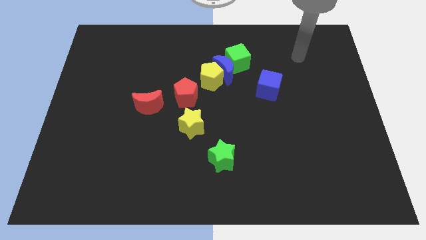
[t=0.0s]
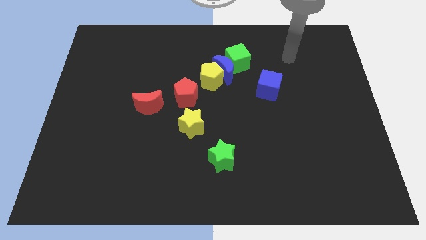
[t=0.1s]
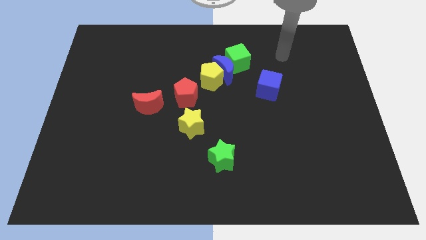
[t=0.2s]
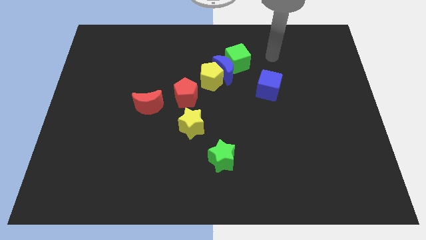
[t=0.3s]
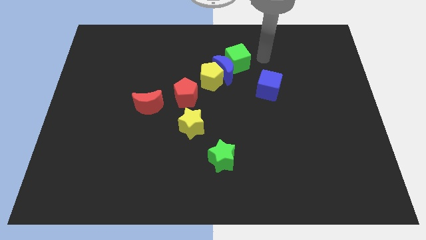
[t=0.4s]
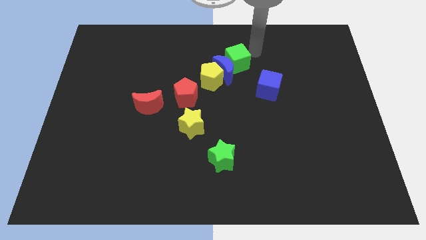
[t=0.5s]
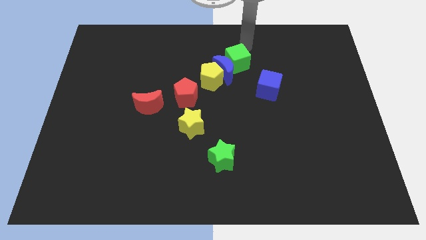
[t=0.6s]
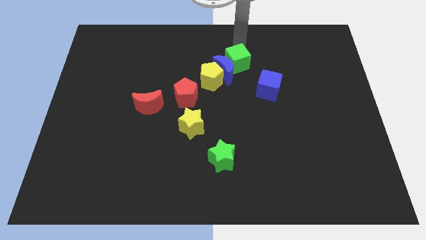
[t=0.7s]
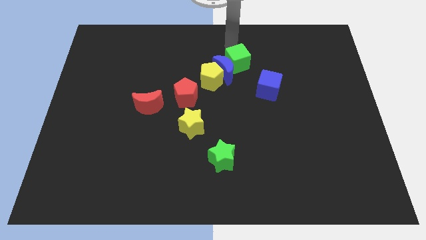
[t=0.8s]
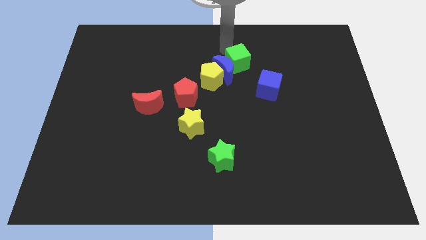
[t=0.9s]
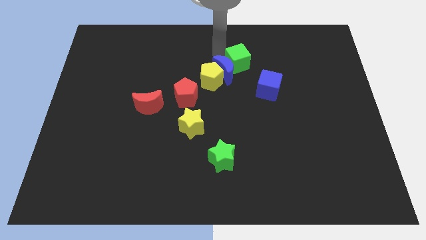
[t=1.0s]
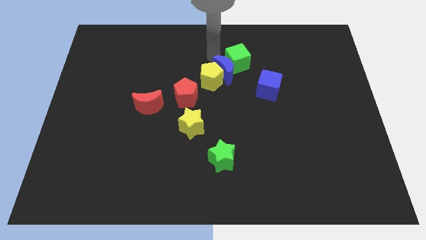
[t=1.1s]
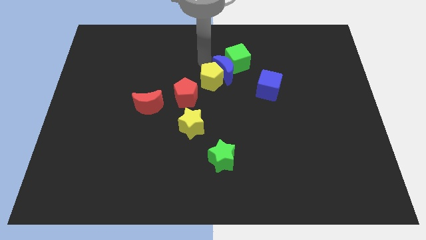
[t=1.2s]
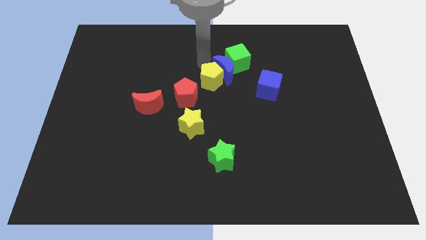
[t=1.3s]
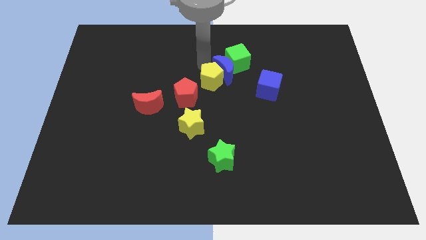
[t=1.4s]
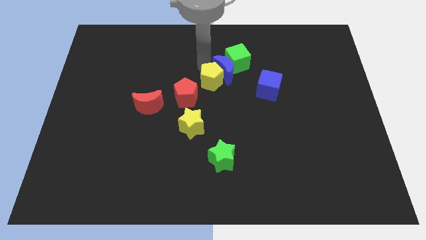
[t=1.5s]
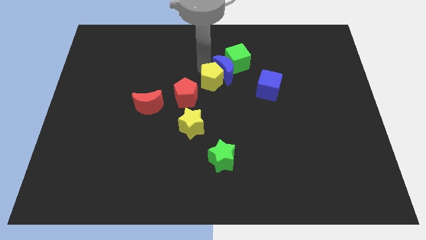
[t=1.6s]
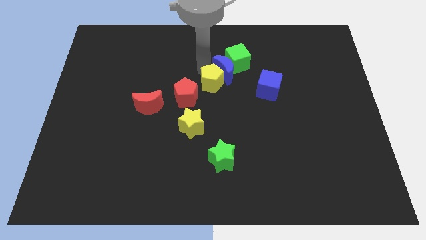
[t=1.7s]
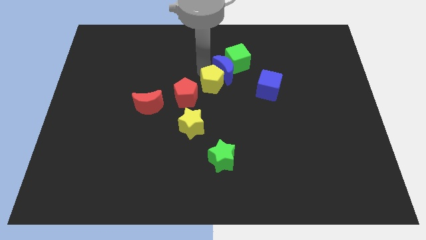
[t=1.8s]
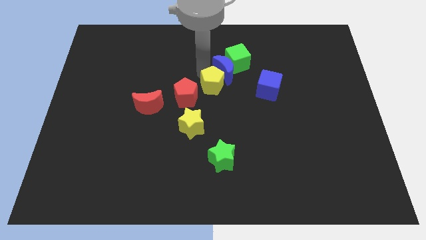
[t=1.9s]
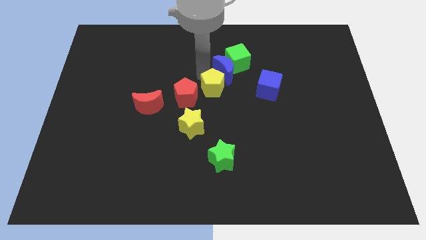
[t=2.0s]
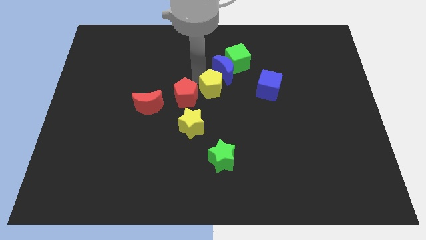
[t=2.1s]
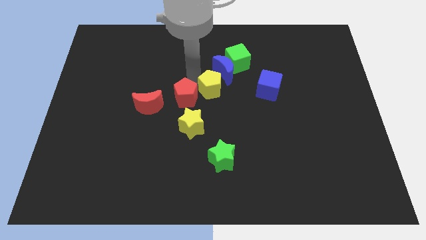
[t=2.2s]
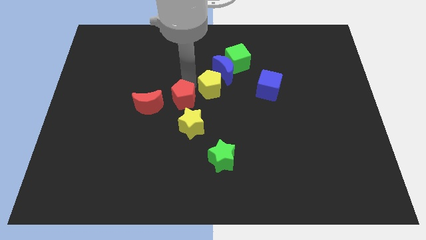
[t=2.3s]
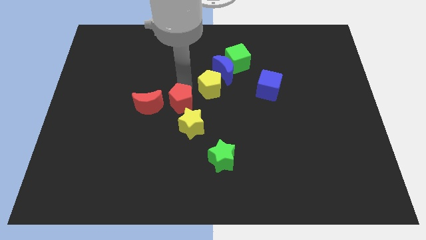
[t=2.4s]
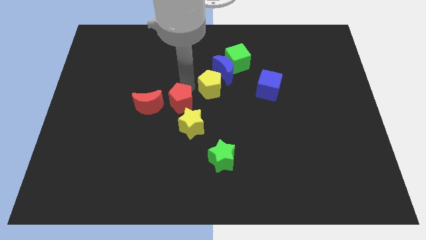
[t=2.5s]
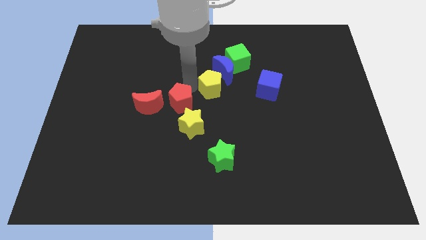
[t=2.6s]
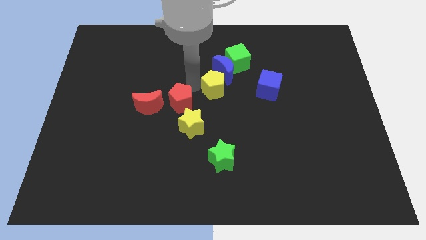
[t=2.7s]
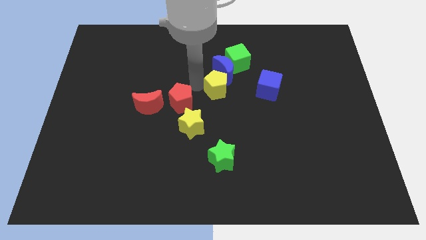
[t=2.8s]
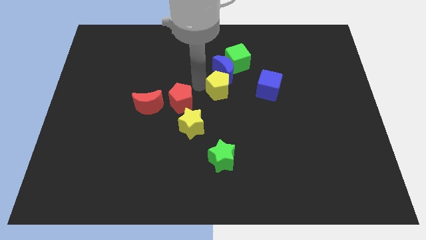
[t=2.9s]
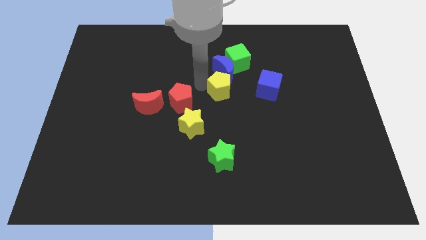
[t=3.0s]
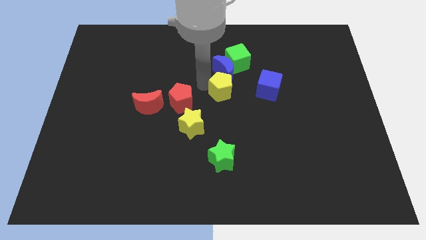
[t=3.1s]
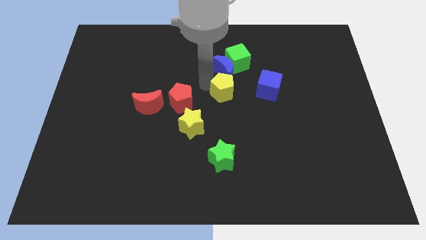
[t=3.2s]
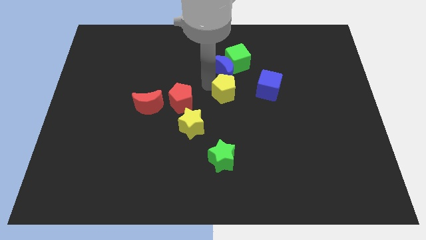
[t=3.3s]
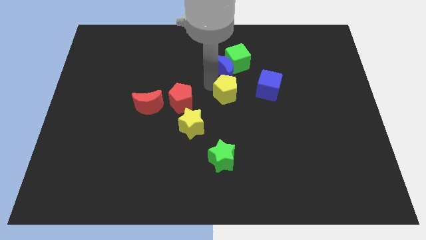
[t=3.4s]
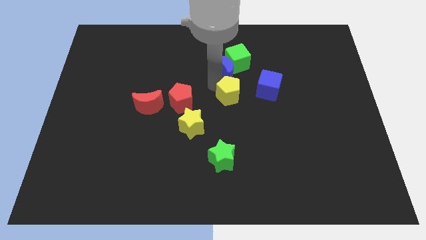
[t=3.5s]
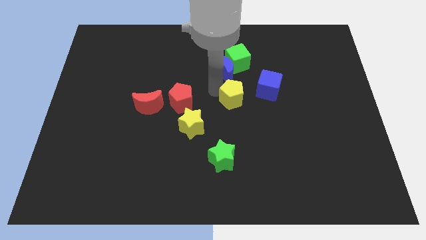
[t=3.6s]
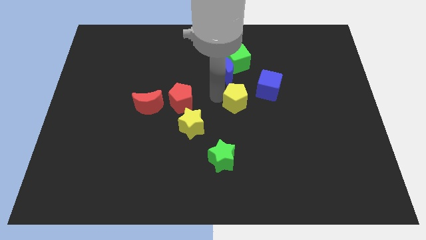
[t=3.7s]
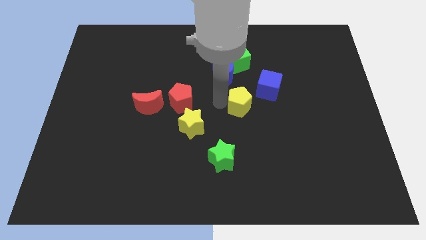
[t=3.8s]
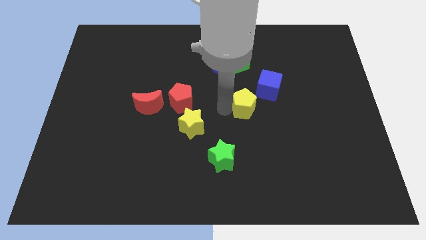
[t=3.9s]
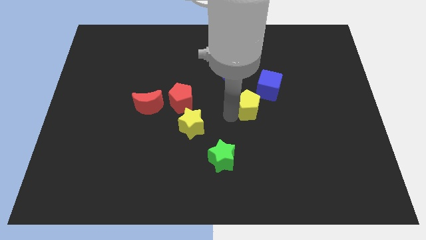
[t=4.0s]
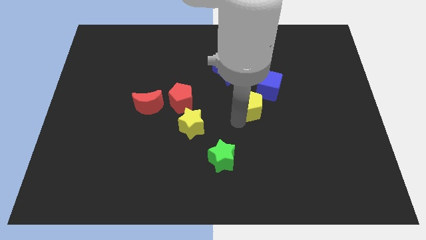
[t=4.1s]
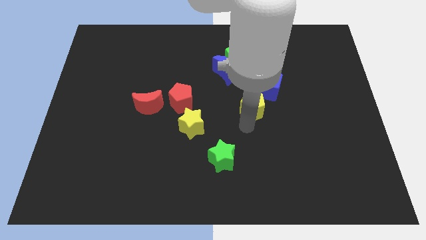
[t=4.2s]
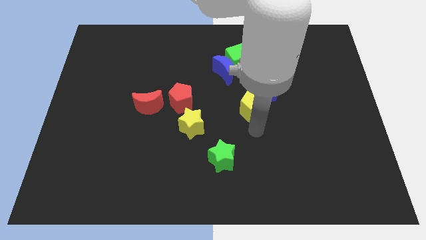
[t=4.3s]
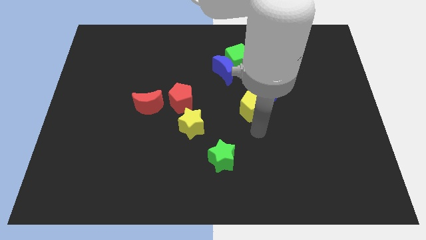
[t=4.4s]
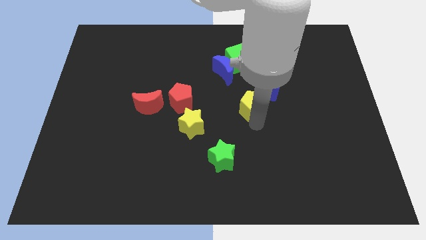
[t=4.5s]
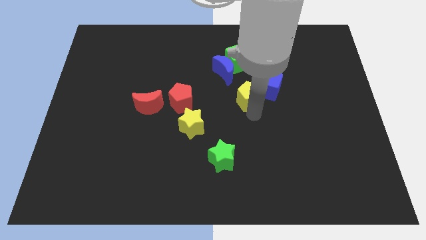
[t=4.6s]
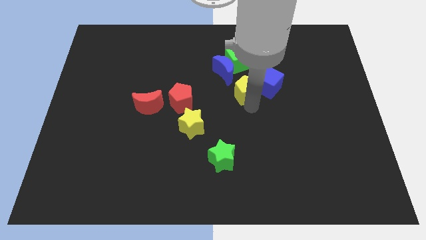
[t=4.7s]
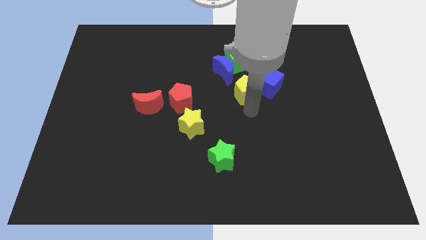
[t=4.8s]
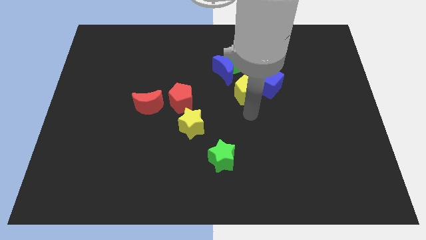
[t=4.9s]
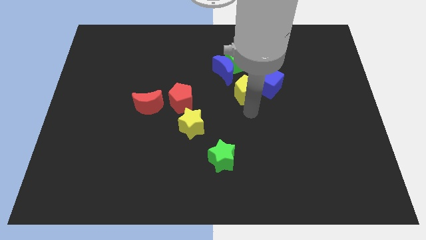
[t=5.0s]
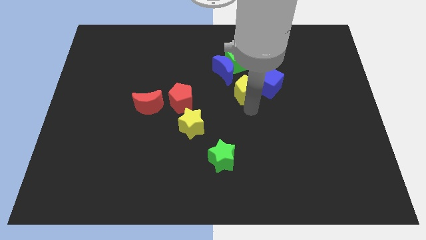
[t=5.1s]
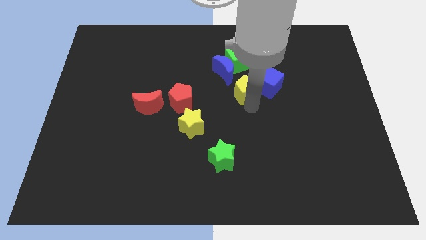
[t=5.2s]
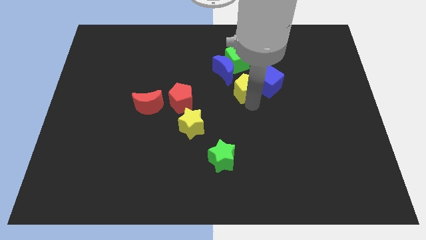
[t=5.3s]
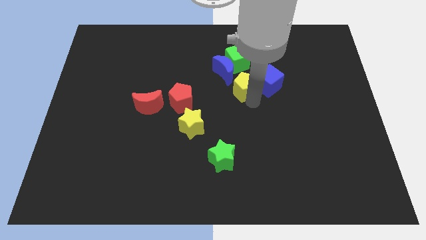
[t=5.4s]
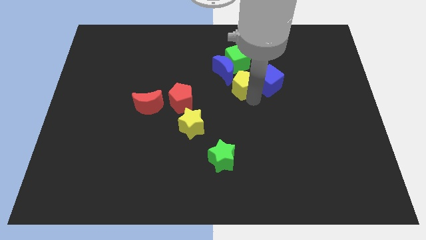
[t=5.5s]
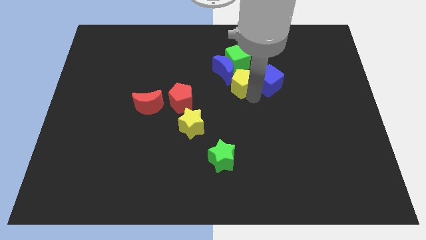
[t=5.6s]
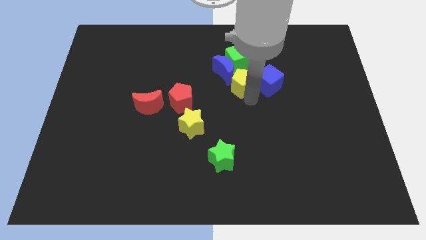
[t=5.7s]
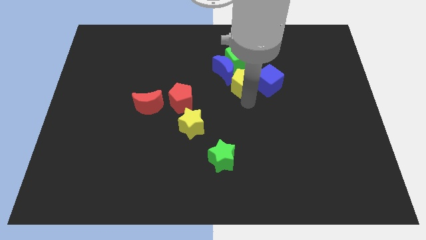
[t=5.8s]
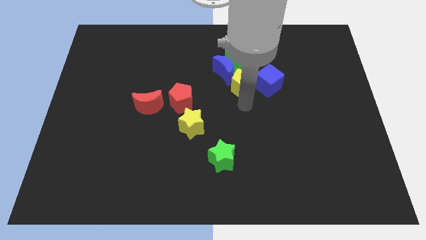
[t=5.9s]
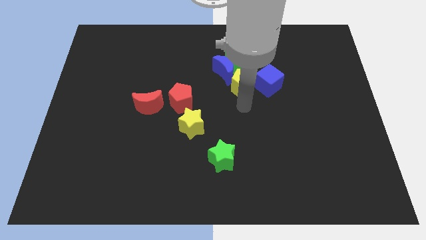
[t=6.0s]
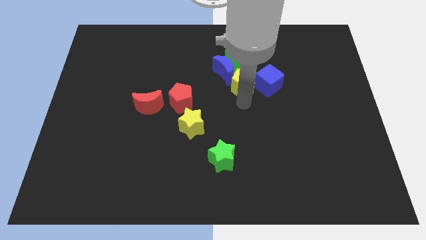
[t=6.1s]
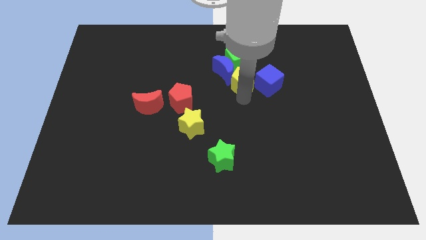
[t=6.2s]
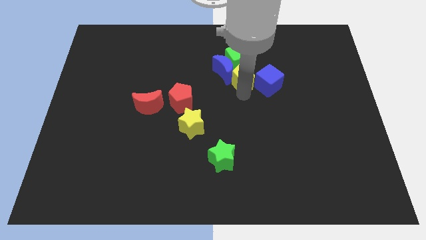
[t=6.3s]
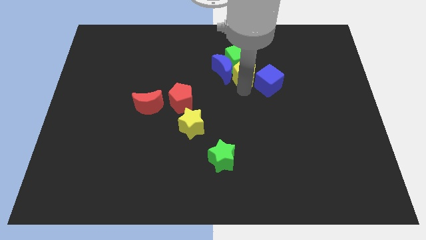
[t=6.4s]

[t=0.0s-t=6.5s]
slide the yellow pentagon close to the green cube
